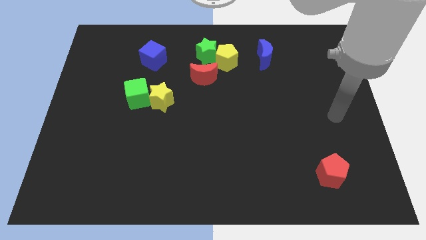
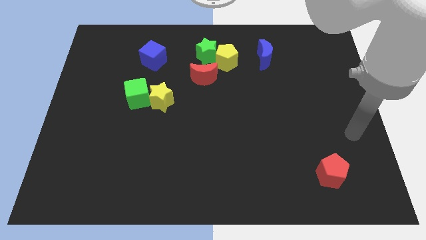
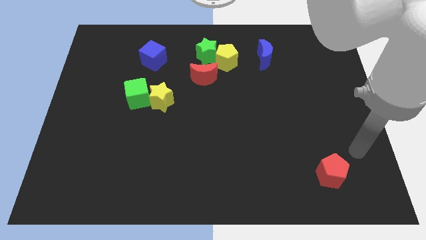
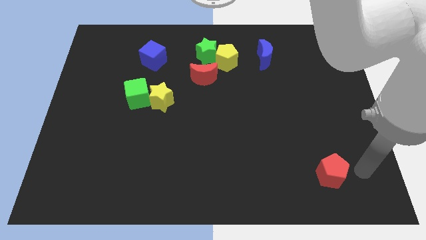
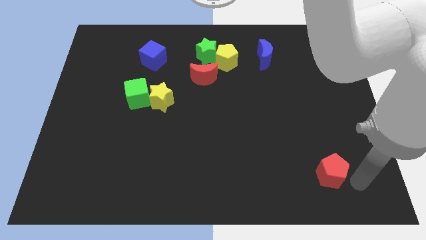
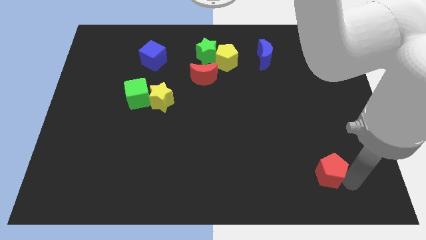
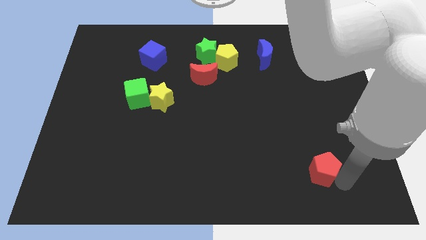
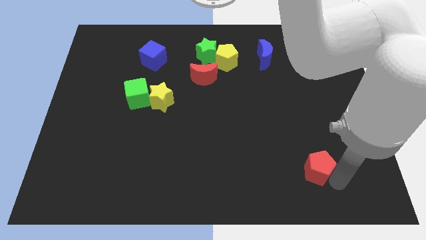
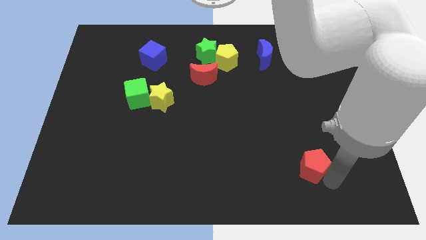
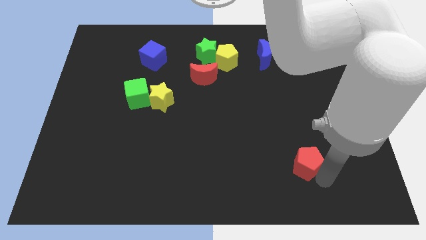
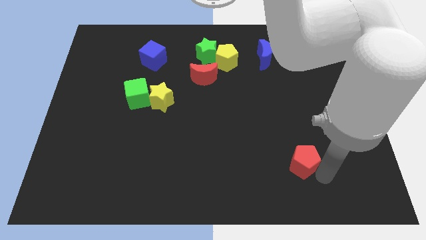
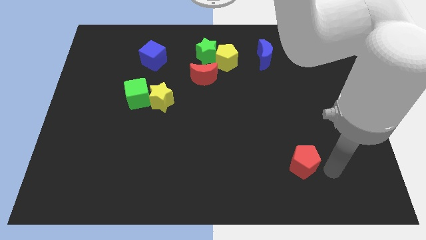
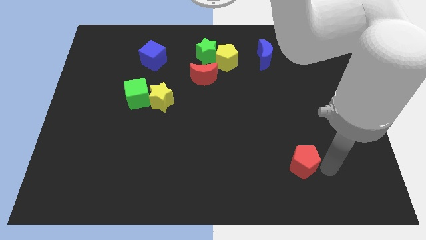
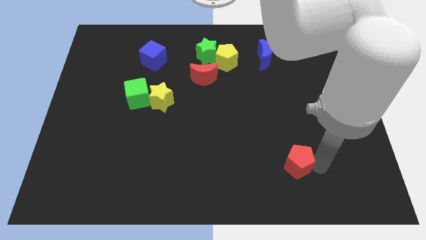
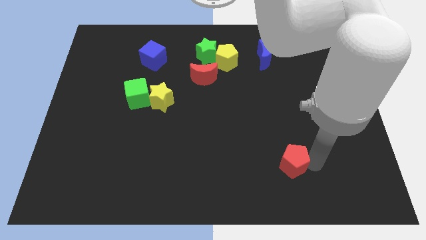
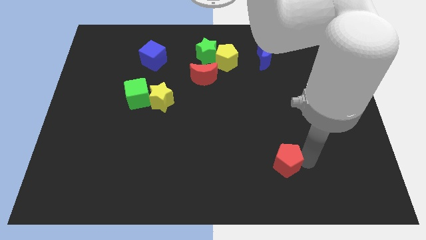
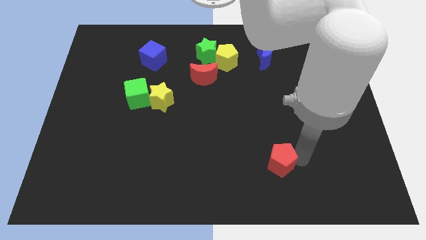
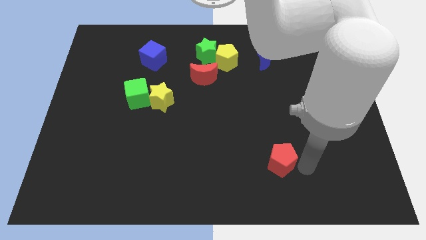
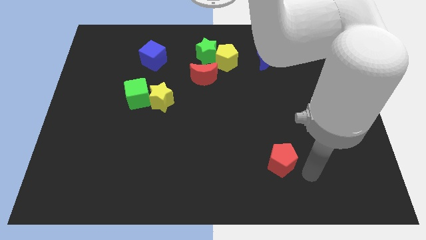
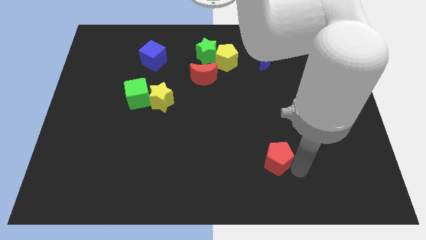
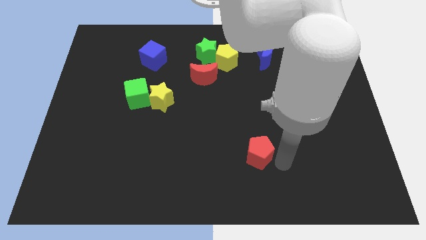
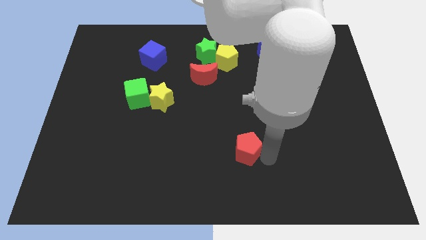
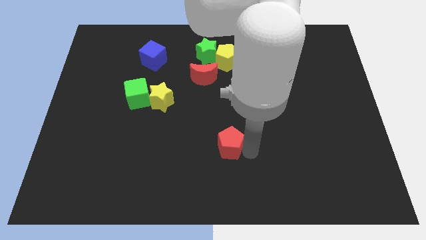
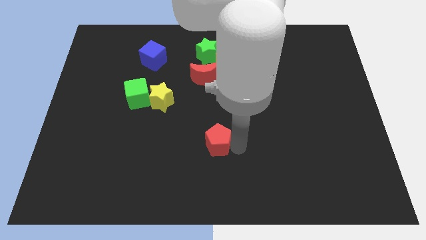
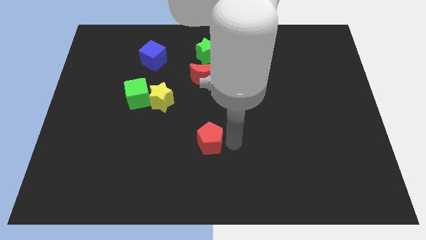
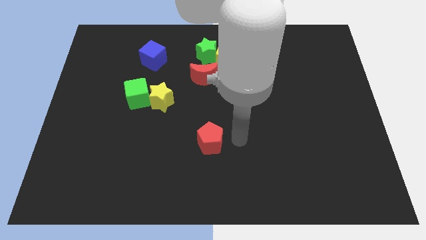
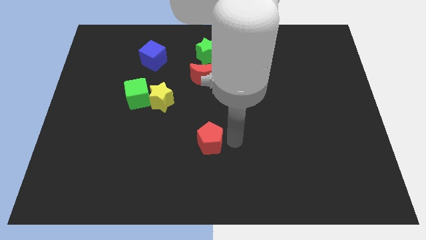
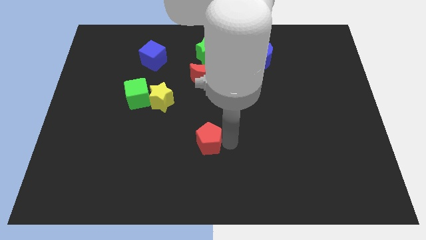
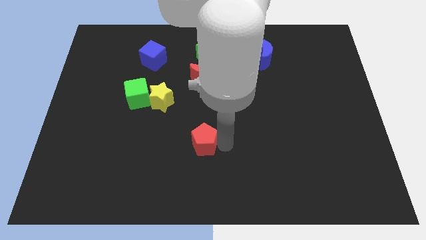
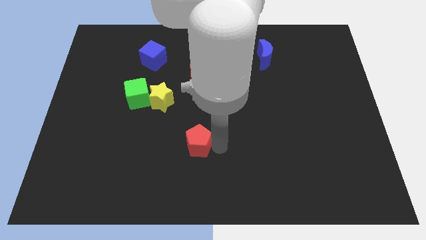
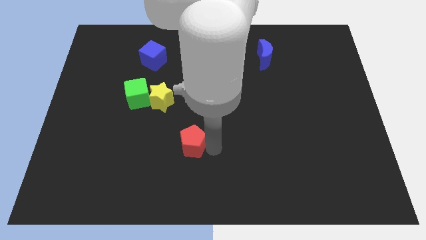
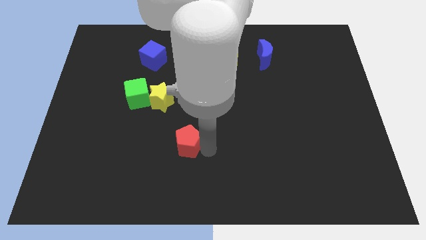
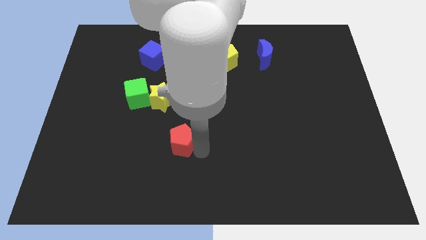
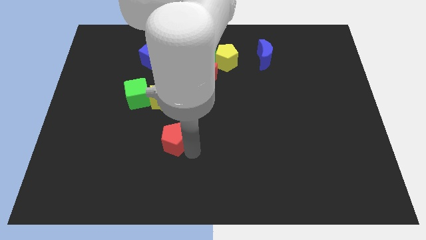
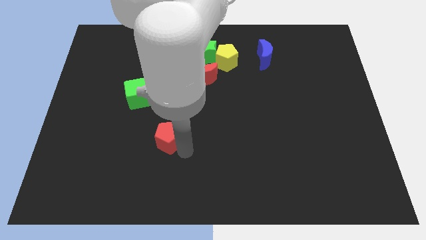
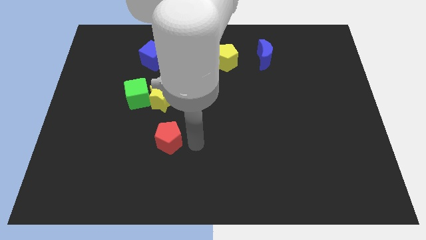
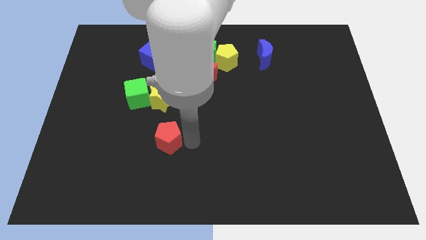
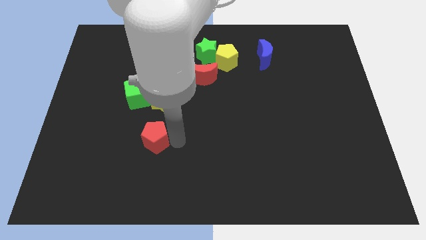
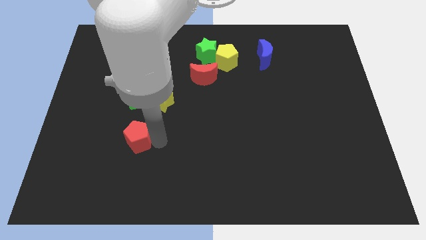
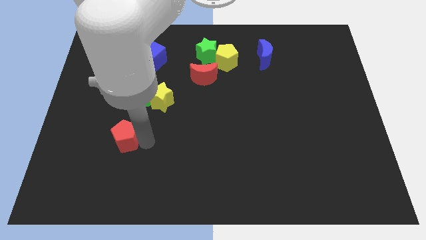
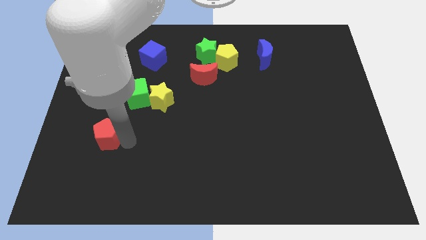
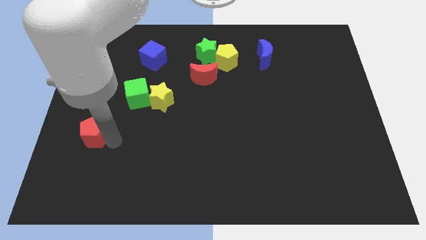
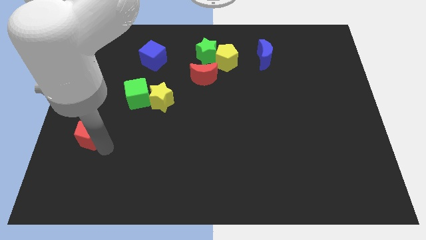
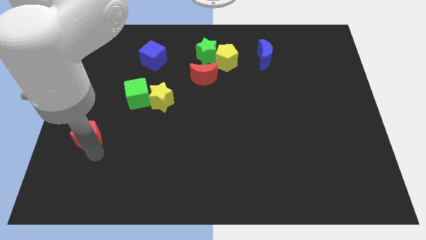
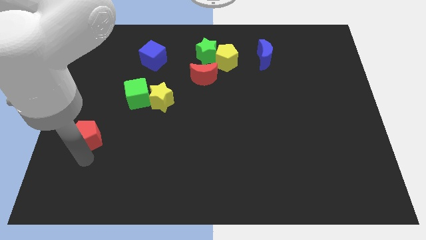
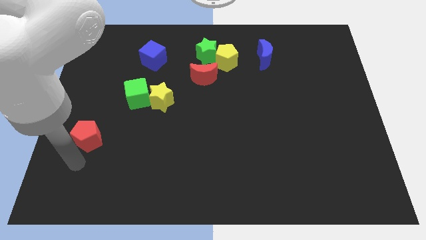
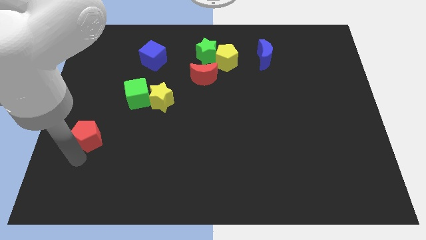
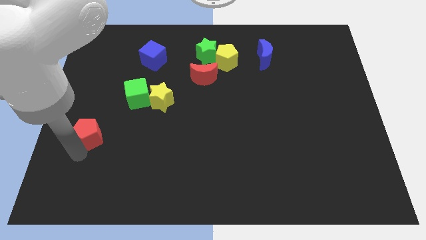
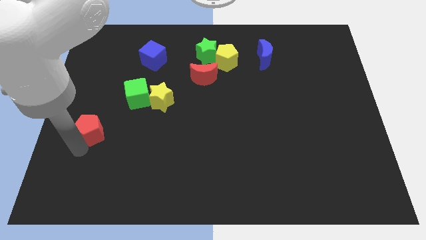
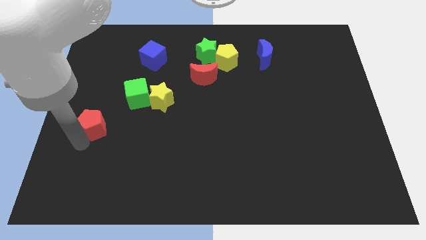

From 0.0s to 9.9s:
slide the red pentagon to the left side

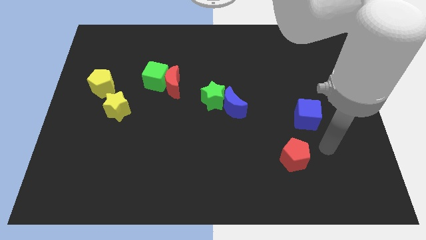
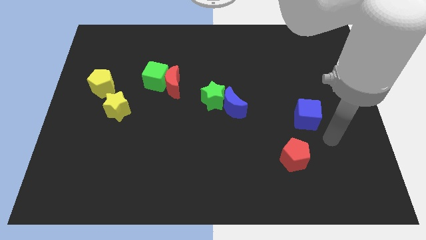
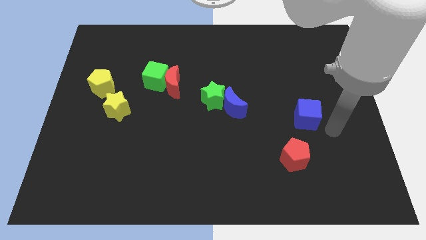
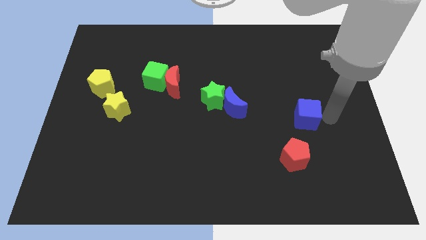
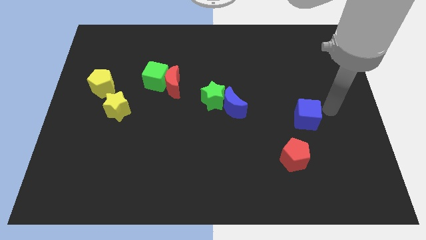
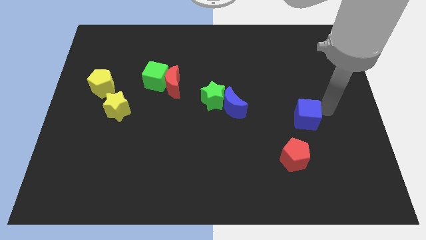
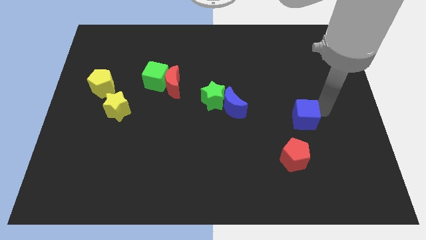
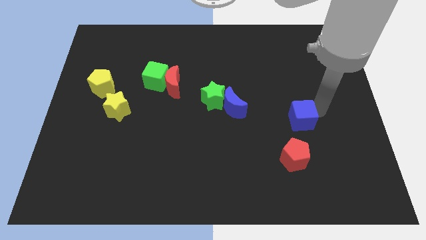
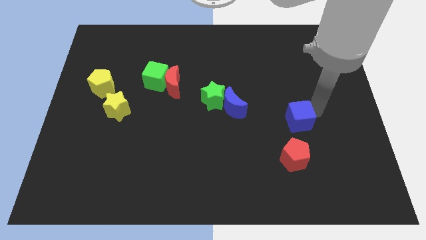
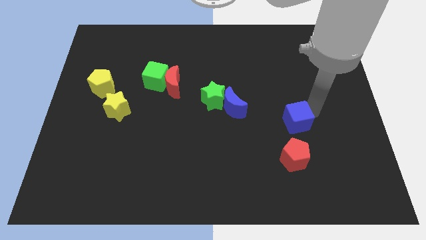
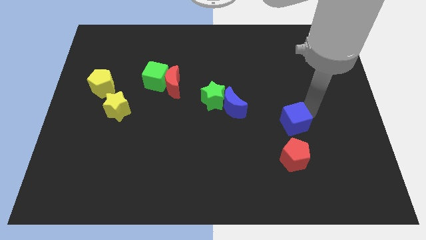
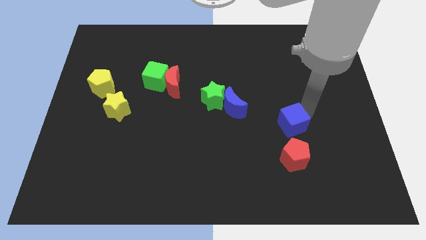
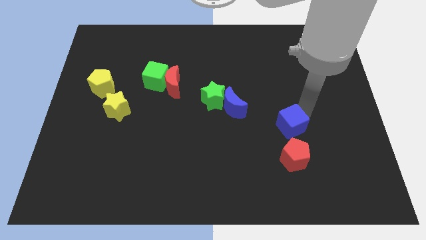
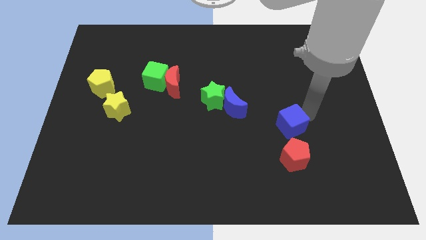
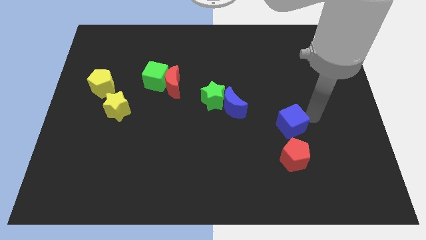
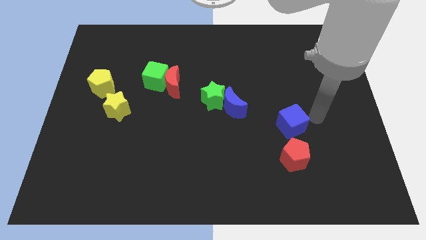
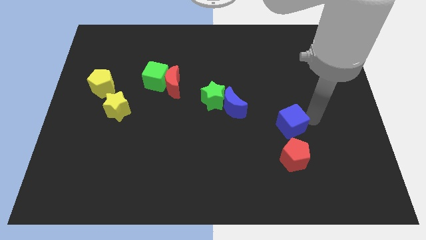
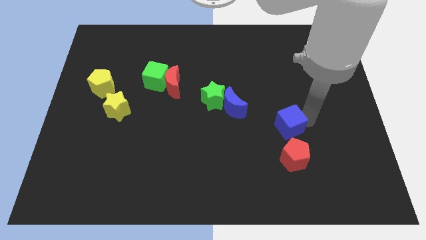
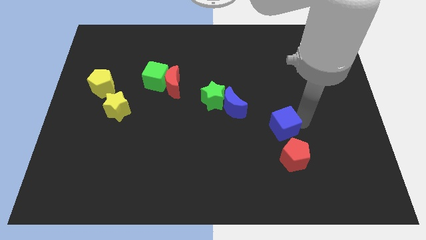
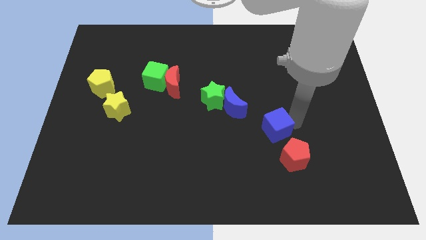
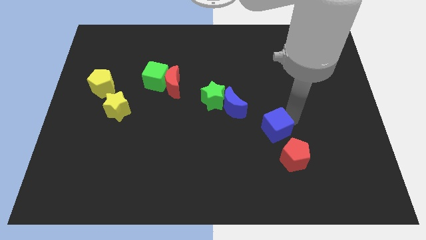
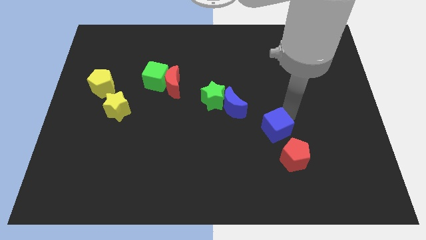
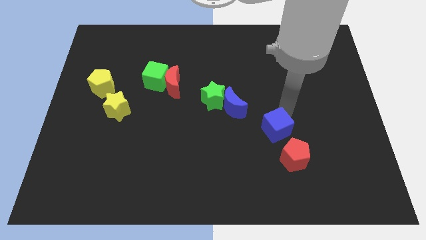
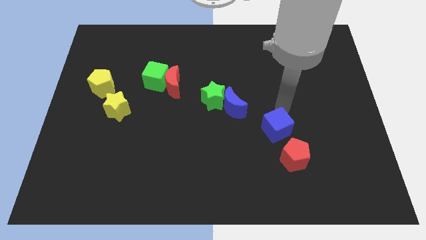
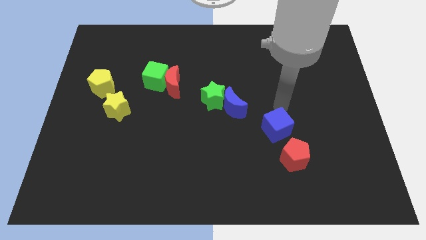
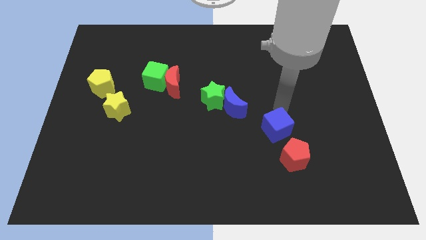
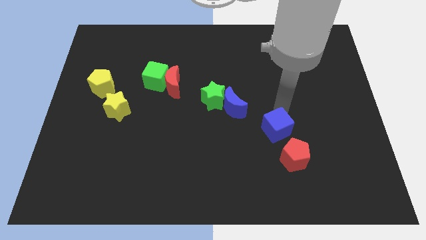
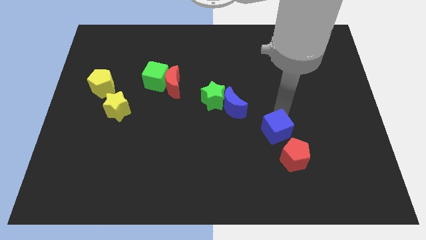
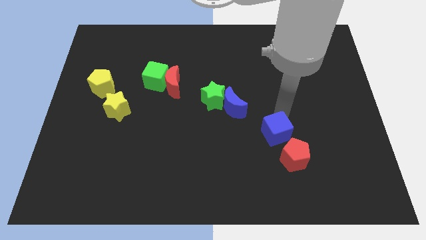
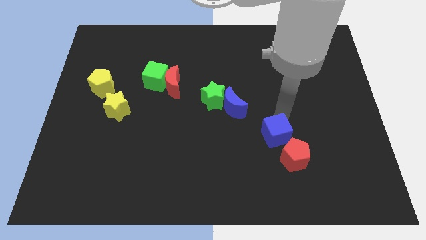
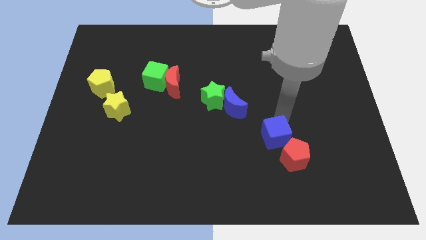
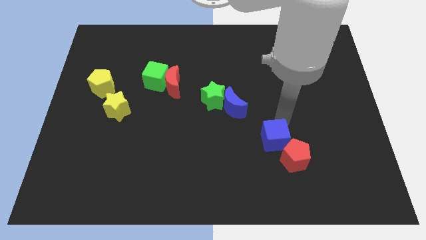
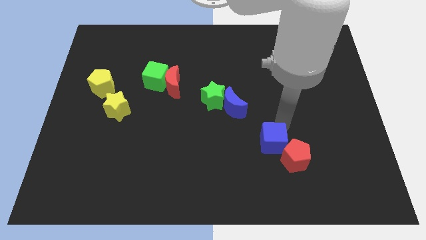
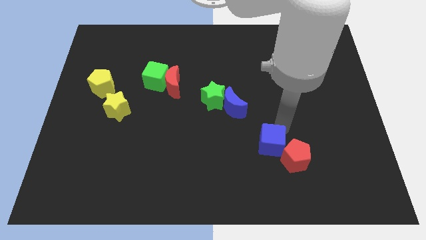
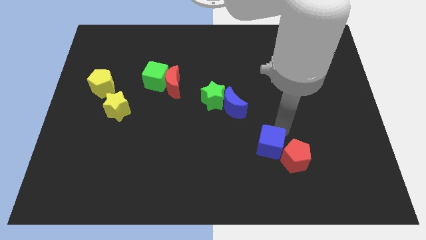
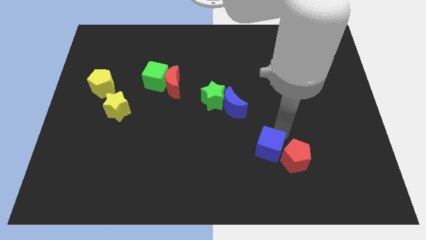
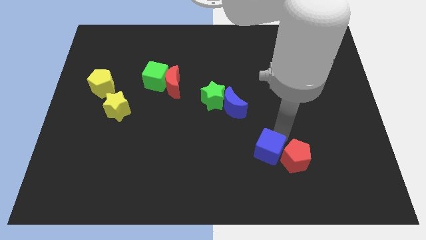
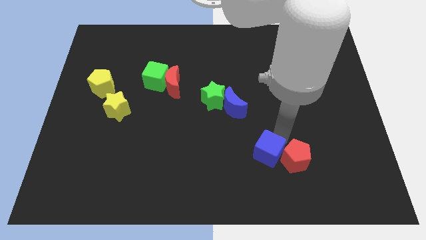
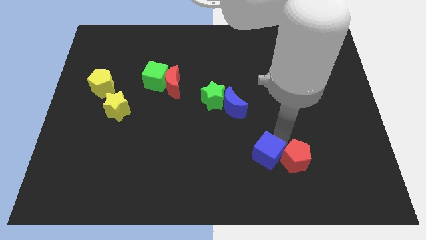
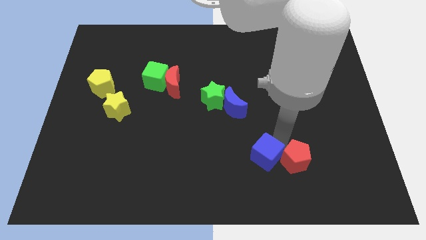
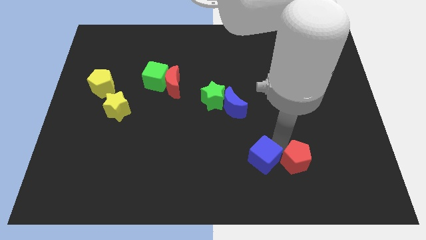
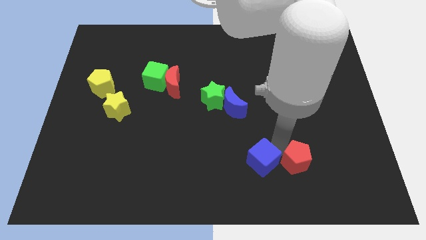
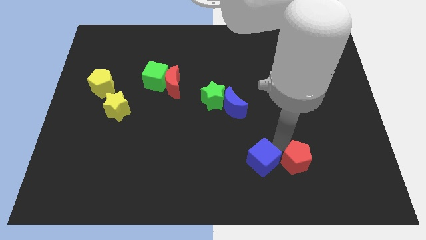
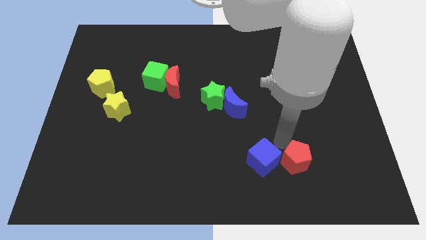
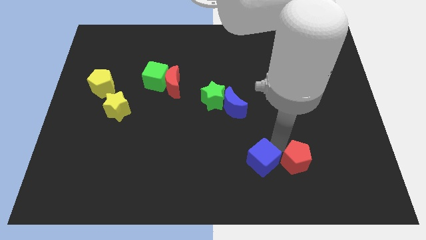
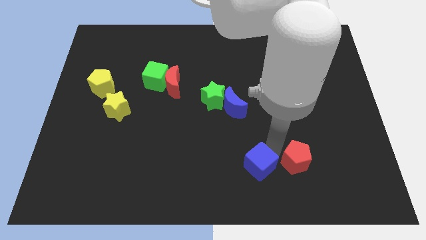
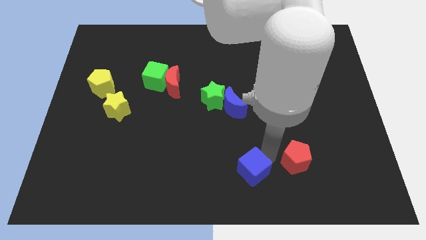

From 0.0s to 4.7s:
push the blue cube to the bottom
